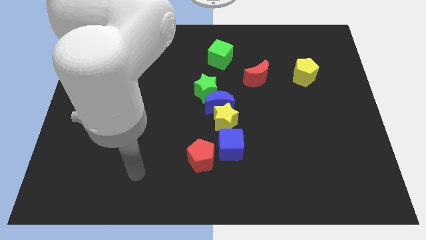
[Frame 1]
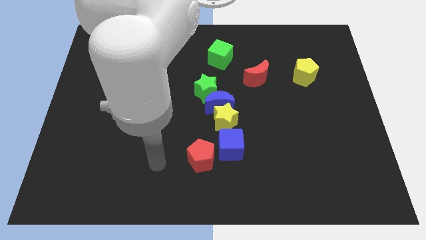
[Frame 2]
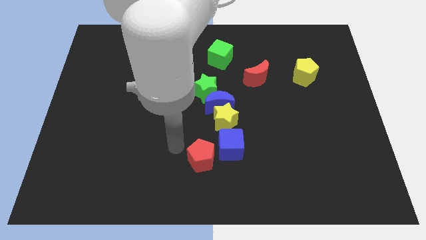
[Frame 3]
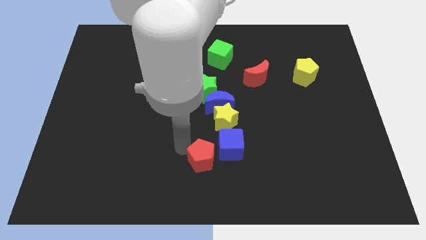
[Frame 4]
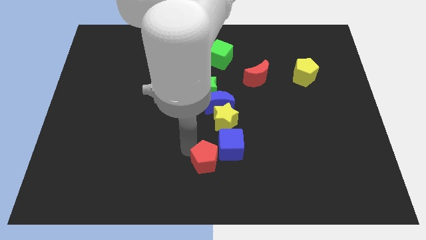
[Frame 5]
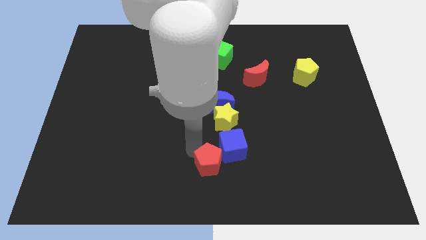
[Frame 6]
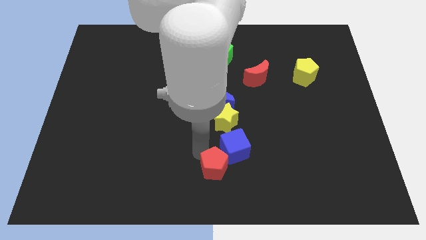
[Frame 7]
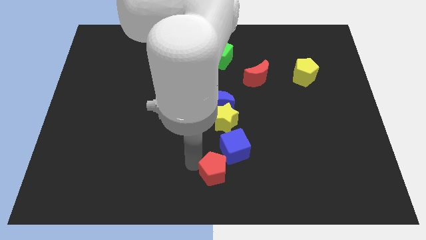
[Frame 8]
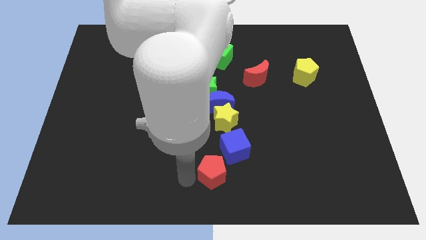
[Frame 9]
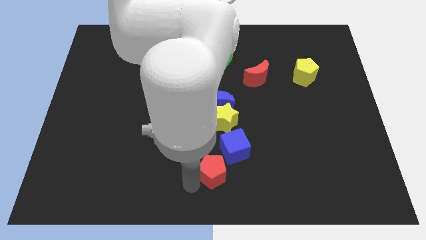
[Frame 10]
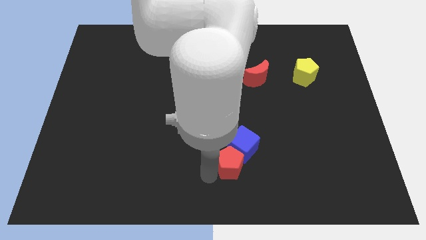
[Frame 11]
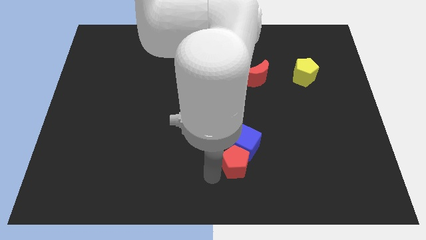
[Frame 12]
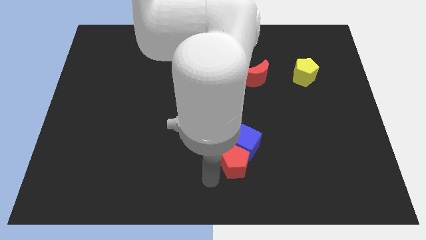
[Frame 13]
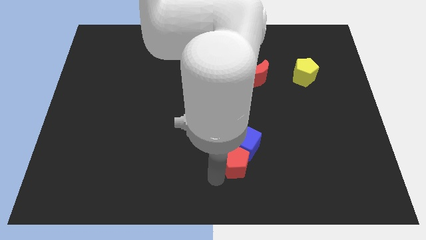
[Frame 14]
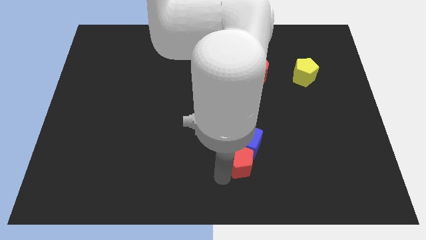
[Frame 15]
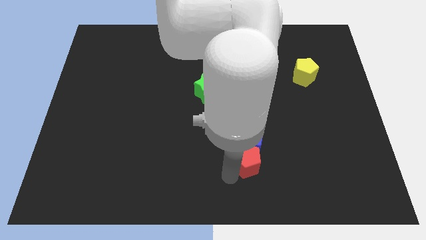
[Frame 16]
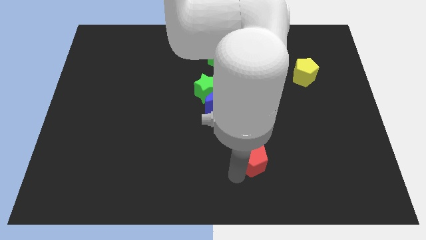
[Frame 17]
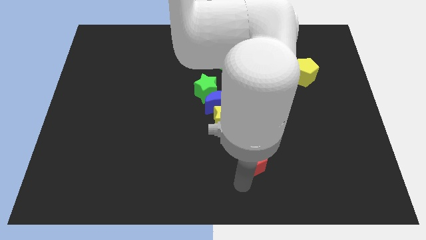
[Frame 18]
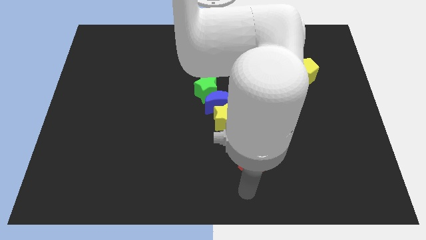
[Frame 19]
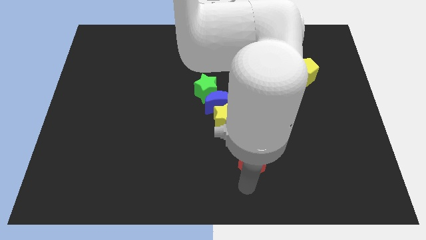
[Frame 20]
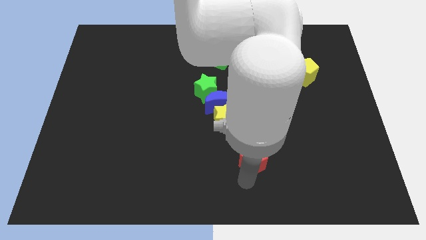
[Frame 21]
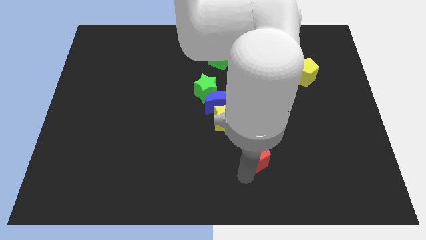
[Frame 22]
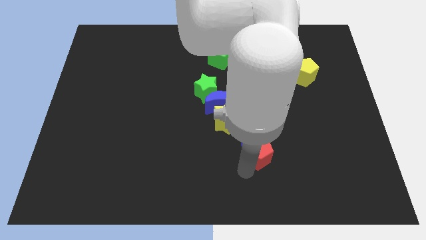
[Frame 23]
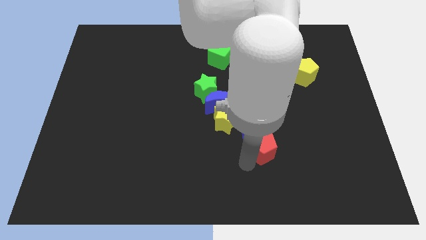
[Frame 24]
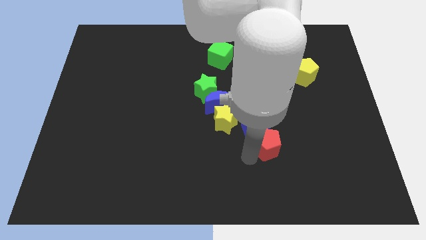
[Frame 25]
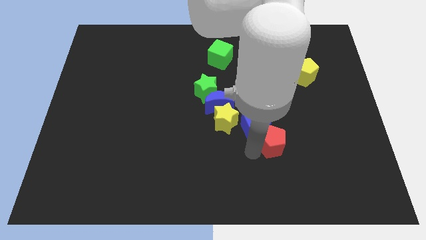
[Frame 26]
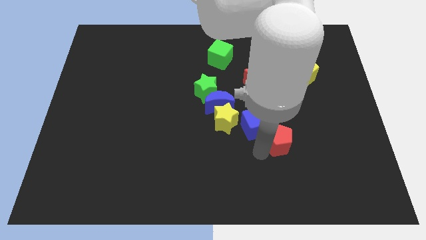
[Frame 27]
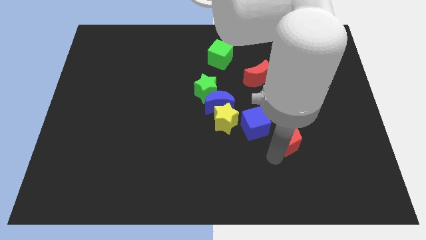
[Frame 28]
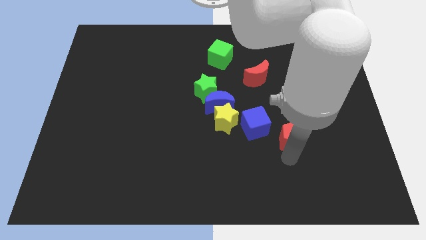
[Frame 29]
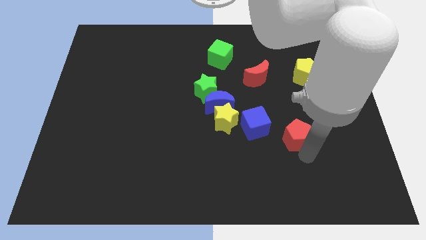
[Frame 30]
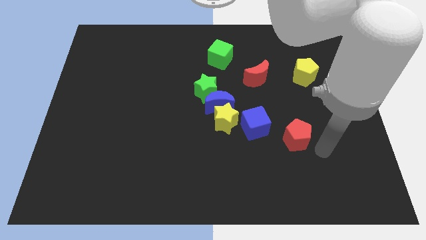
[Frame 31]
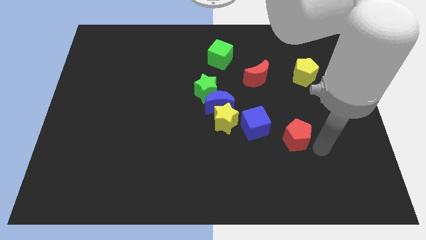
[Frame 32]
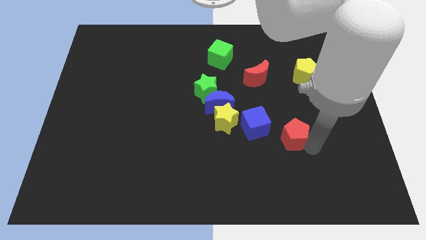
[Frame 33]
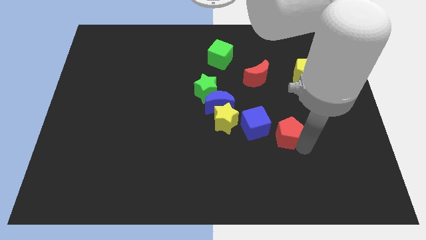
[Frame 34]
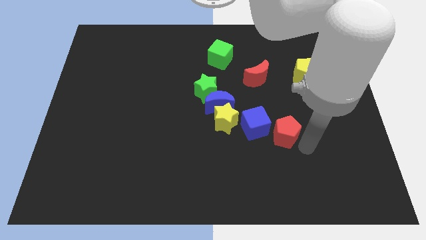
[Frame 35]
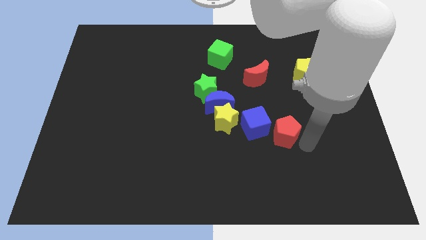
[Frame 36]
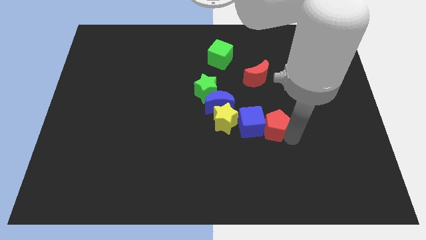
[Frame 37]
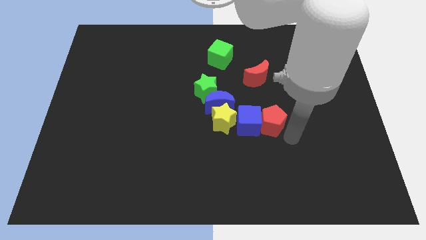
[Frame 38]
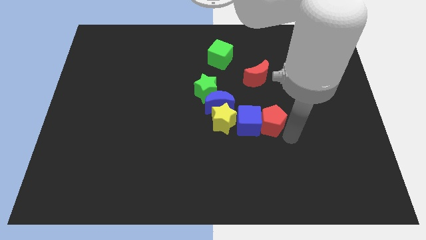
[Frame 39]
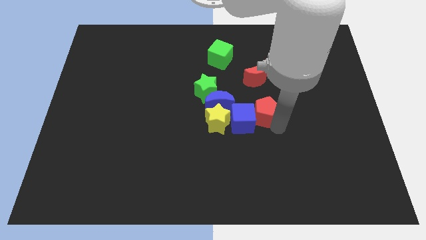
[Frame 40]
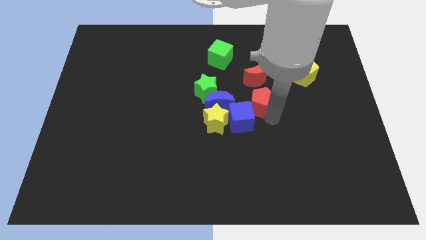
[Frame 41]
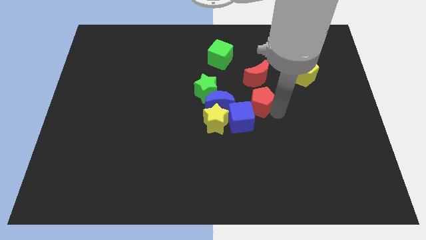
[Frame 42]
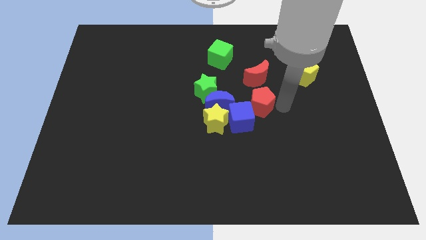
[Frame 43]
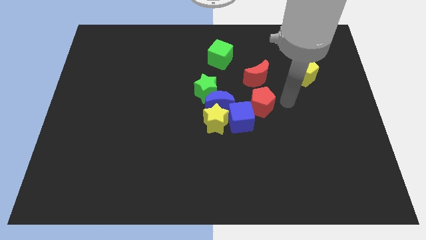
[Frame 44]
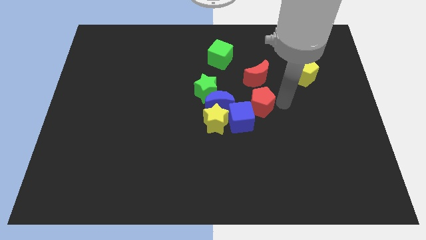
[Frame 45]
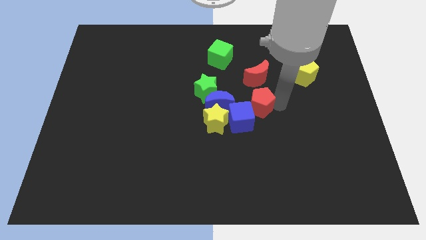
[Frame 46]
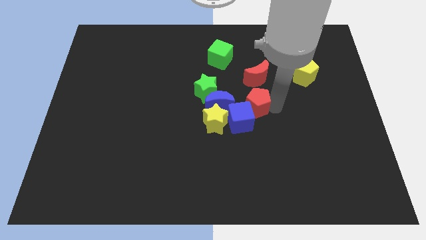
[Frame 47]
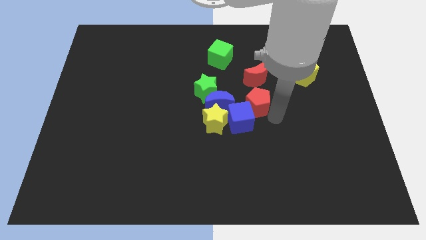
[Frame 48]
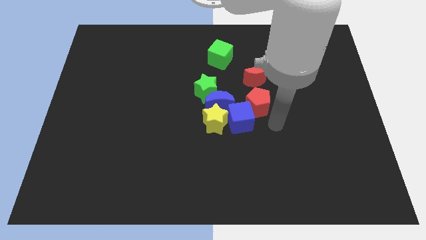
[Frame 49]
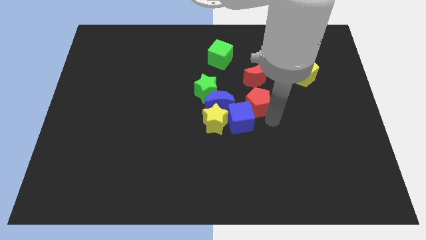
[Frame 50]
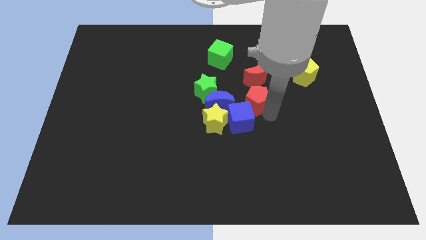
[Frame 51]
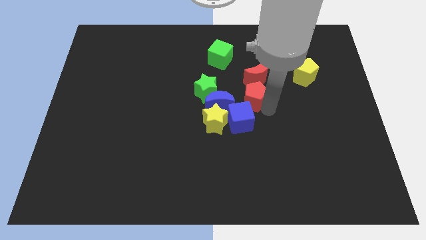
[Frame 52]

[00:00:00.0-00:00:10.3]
move the red pentagon to the top right of the blue moon

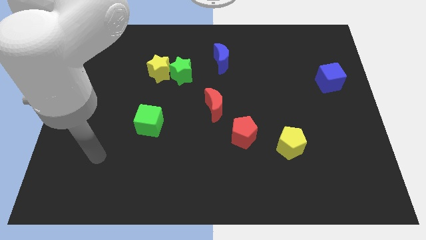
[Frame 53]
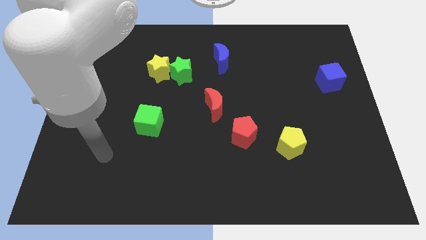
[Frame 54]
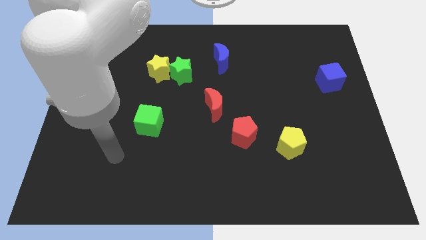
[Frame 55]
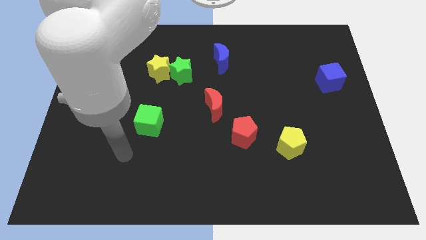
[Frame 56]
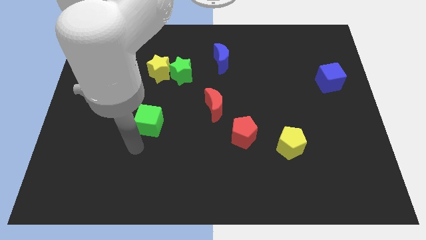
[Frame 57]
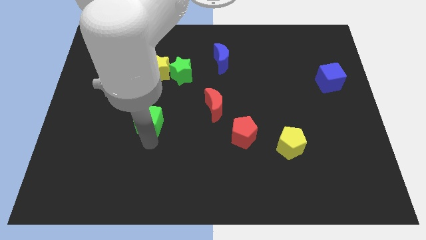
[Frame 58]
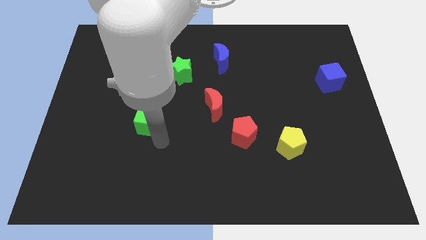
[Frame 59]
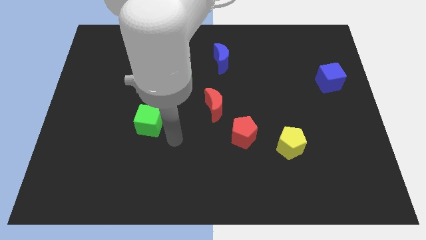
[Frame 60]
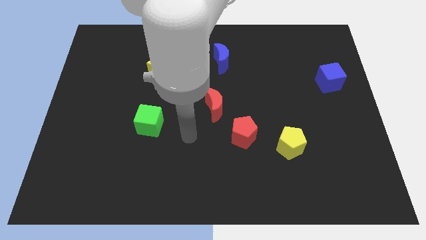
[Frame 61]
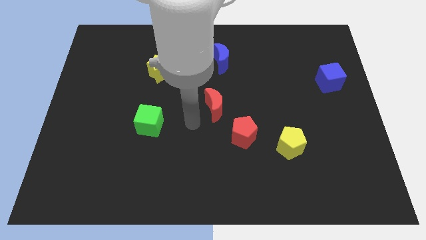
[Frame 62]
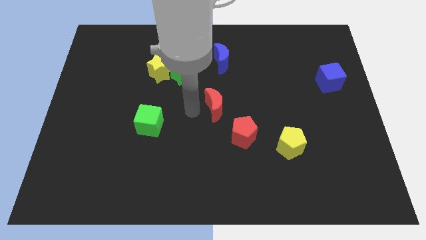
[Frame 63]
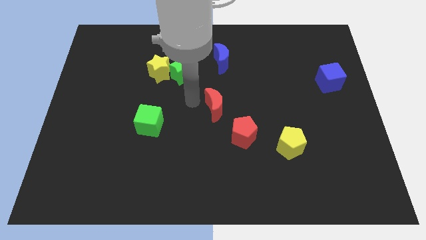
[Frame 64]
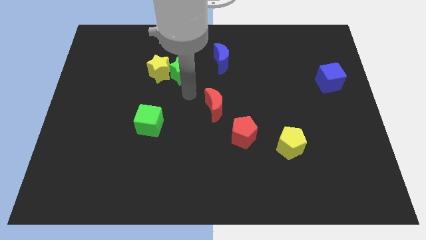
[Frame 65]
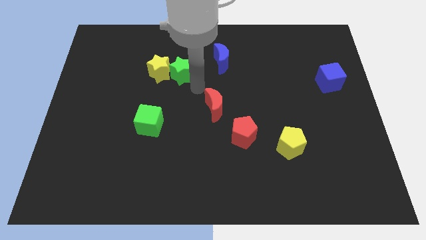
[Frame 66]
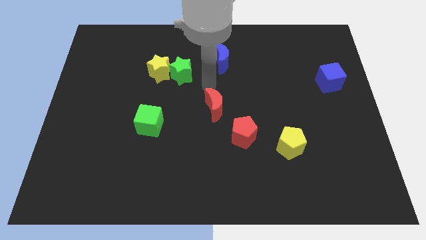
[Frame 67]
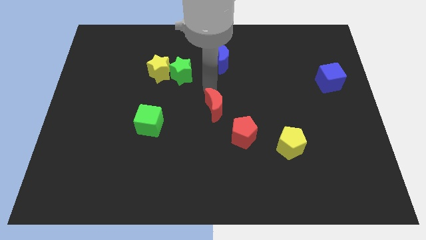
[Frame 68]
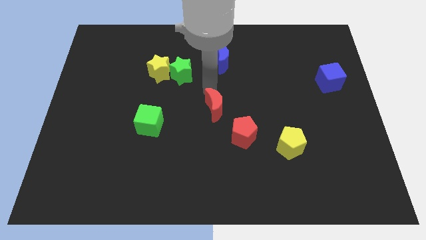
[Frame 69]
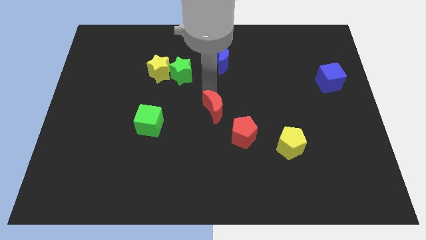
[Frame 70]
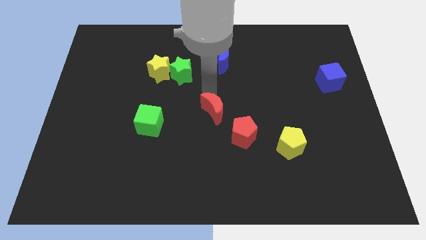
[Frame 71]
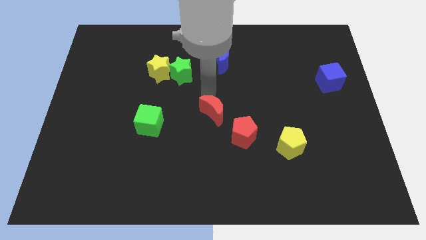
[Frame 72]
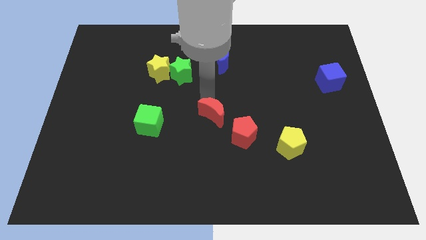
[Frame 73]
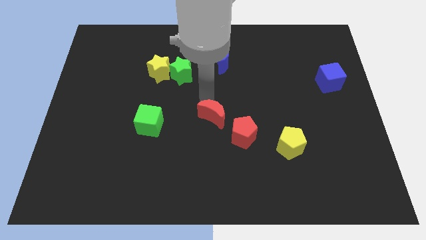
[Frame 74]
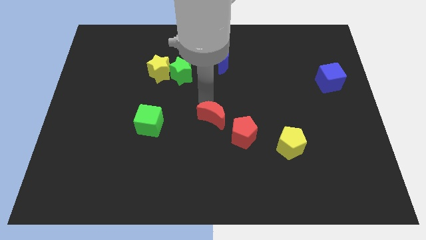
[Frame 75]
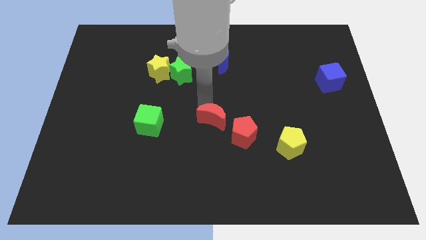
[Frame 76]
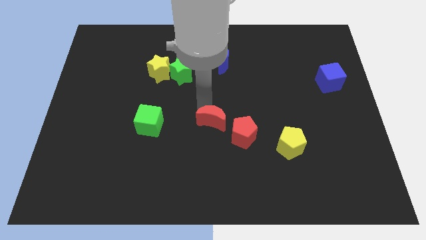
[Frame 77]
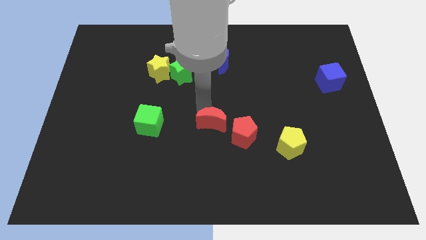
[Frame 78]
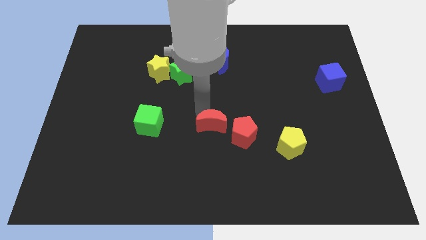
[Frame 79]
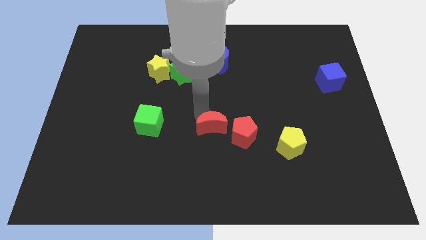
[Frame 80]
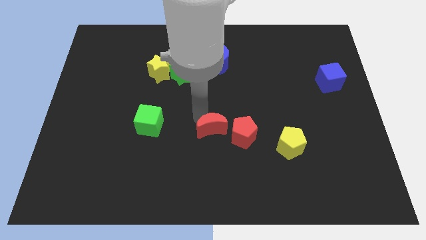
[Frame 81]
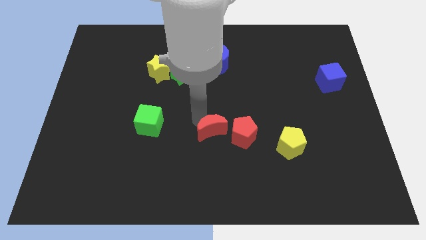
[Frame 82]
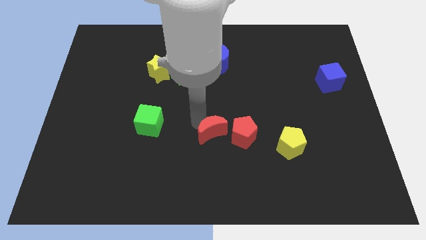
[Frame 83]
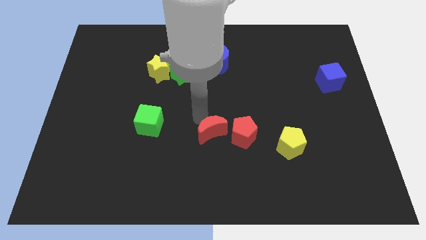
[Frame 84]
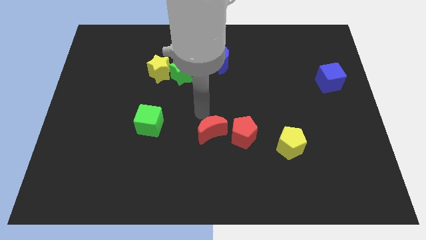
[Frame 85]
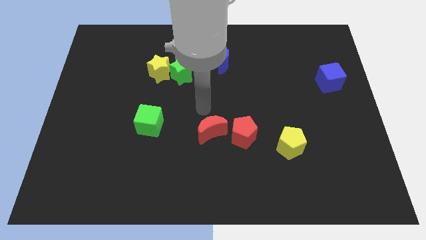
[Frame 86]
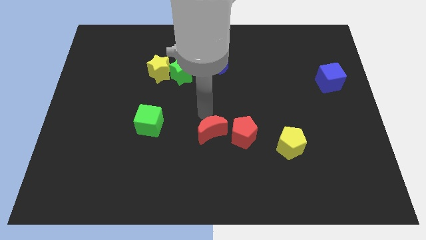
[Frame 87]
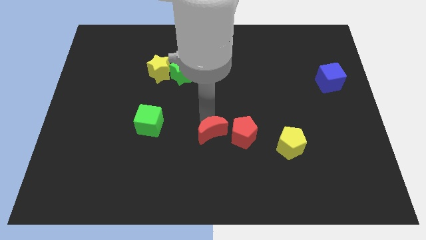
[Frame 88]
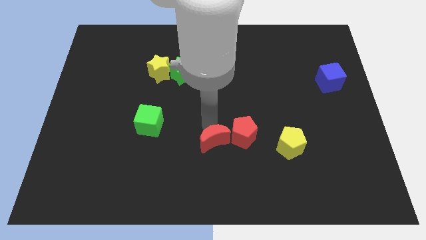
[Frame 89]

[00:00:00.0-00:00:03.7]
push the red moon to the bottom left of the red pentagon
